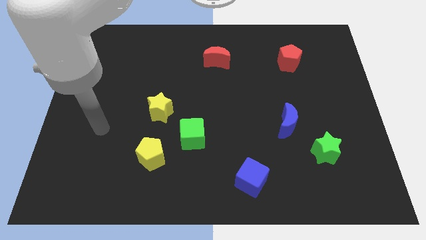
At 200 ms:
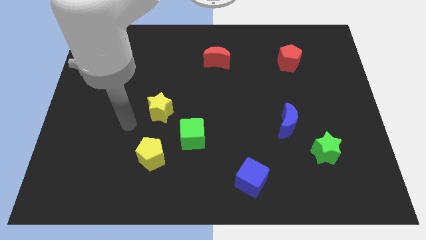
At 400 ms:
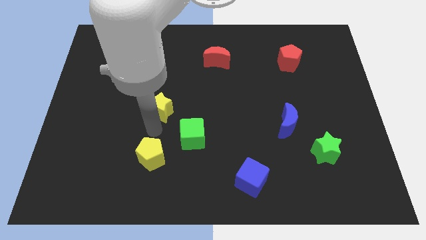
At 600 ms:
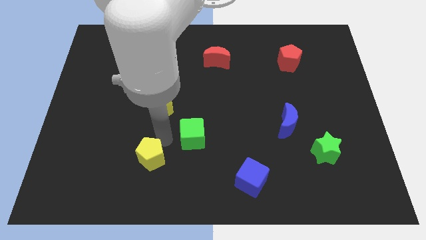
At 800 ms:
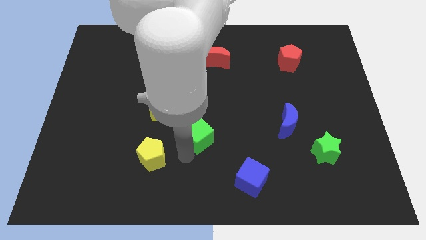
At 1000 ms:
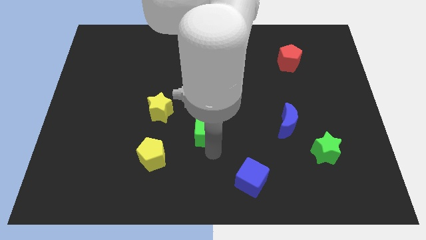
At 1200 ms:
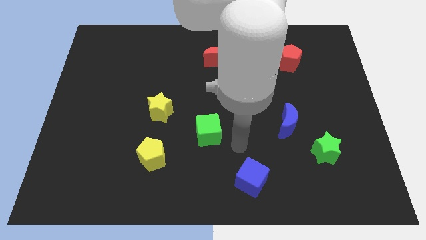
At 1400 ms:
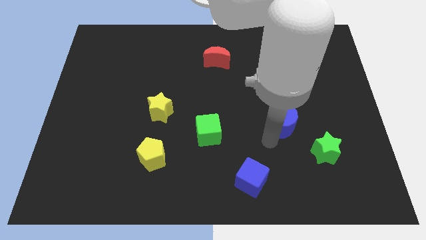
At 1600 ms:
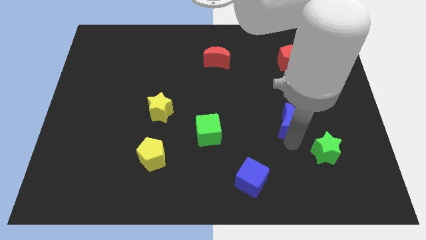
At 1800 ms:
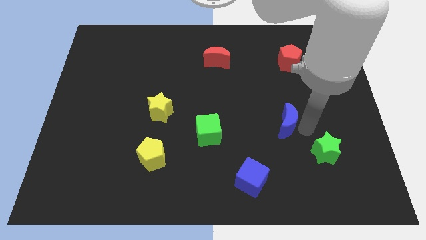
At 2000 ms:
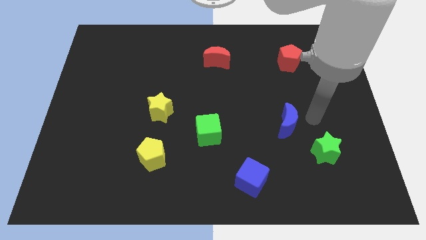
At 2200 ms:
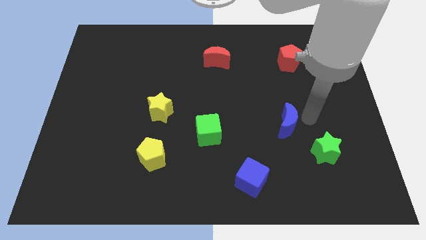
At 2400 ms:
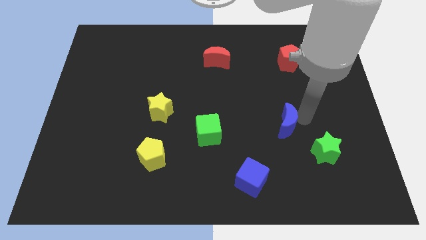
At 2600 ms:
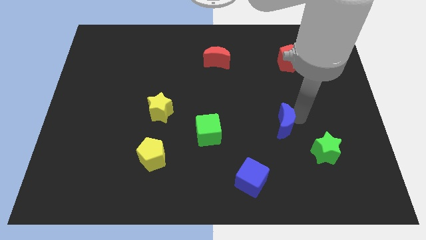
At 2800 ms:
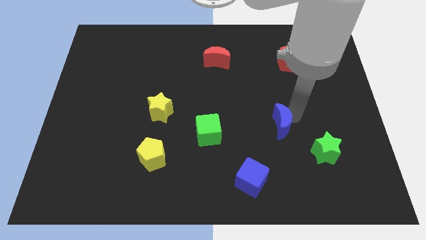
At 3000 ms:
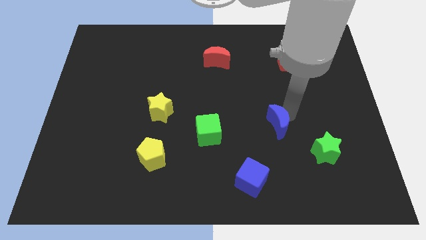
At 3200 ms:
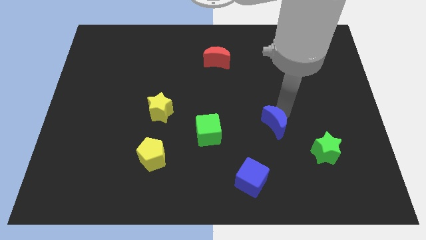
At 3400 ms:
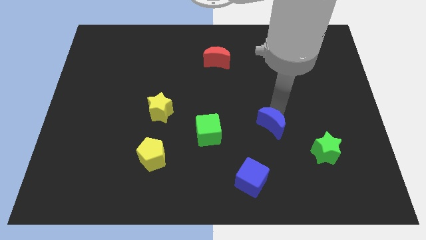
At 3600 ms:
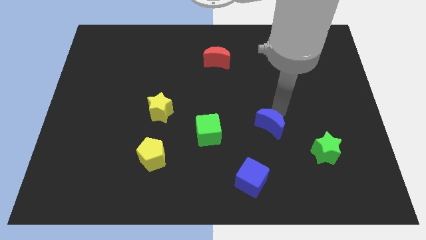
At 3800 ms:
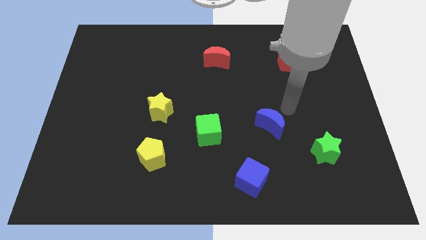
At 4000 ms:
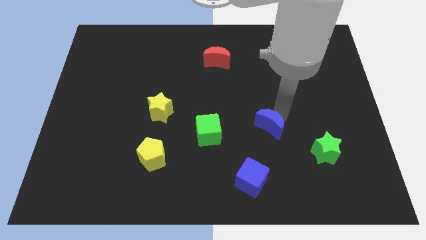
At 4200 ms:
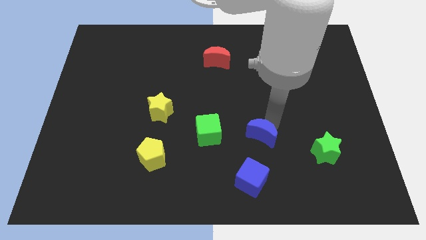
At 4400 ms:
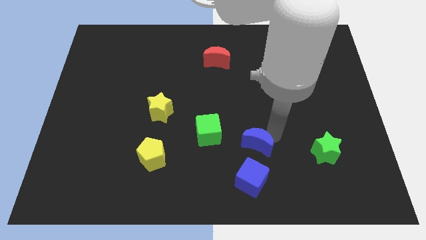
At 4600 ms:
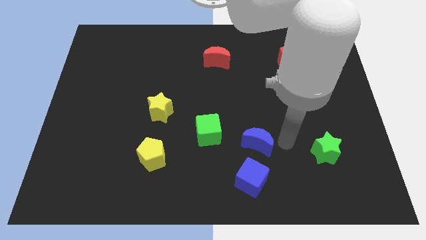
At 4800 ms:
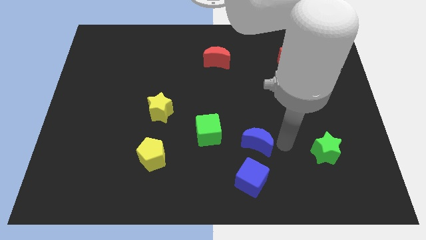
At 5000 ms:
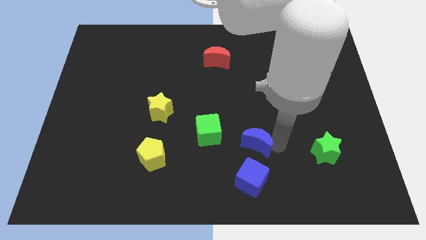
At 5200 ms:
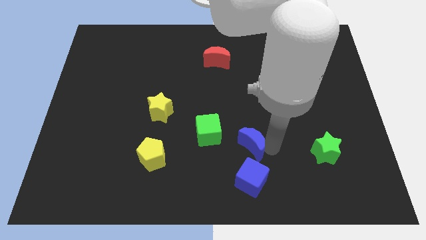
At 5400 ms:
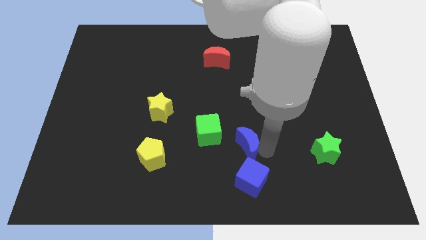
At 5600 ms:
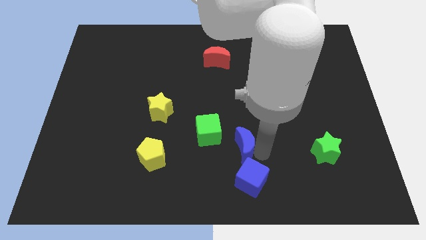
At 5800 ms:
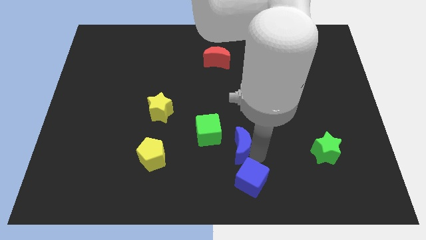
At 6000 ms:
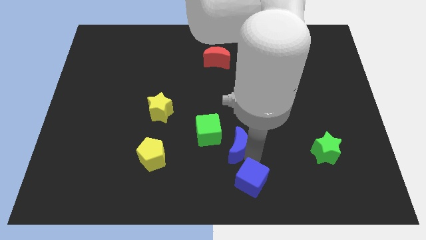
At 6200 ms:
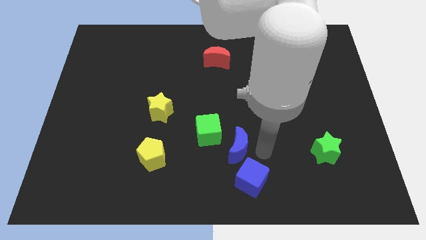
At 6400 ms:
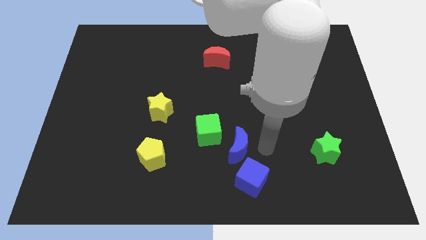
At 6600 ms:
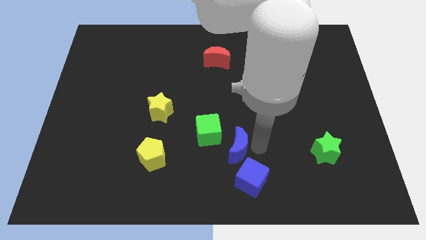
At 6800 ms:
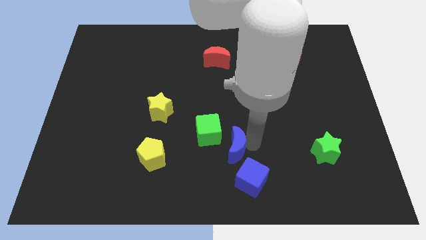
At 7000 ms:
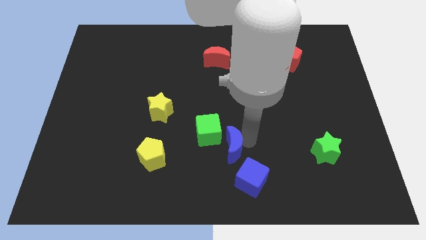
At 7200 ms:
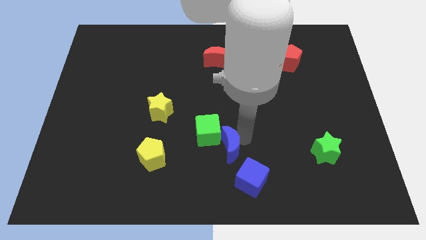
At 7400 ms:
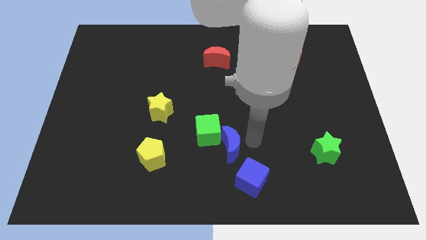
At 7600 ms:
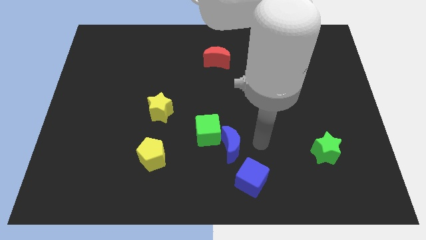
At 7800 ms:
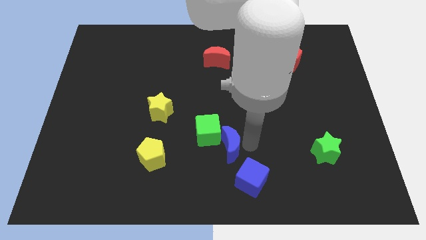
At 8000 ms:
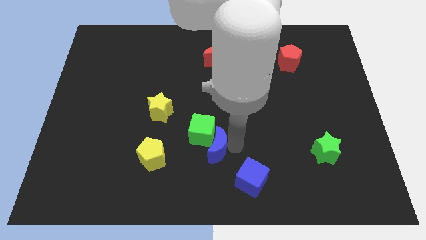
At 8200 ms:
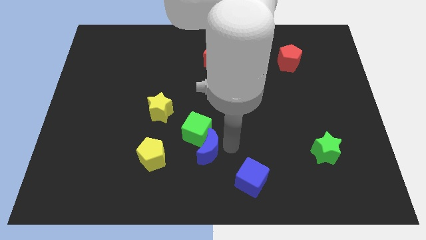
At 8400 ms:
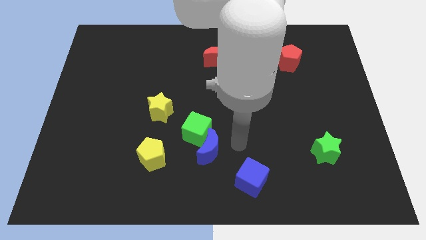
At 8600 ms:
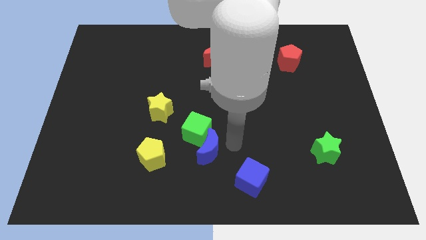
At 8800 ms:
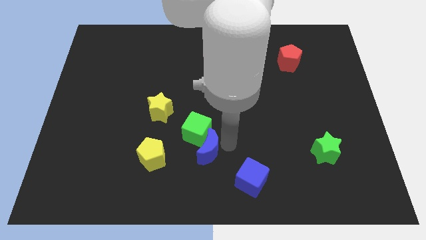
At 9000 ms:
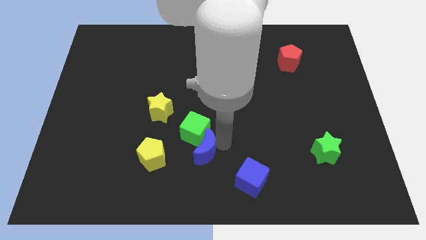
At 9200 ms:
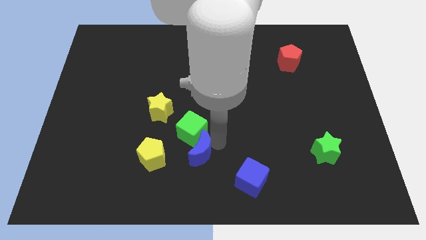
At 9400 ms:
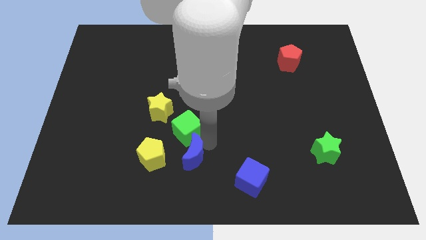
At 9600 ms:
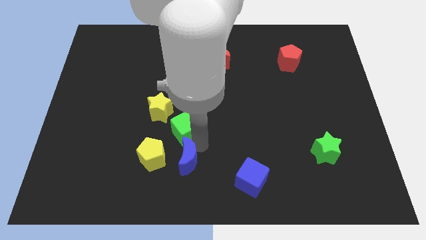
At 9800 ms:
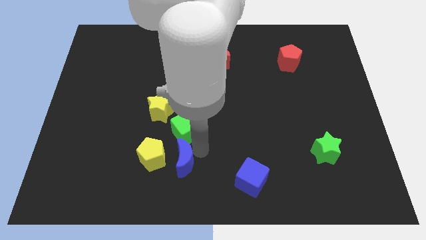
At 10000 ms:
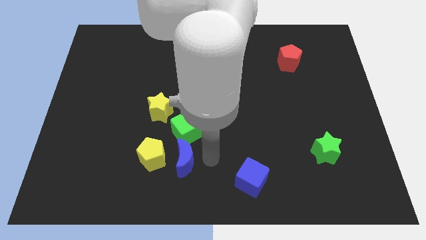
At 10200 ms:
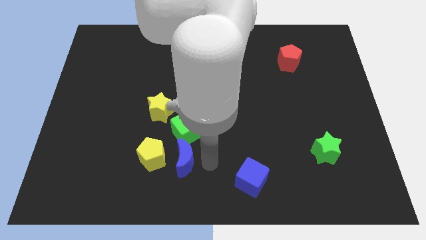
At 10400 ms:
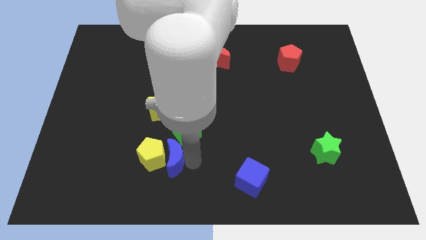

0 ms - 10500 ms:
slide the blue moon next to the yellow pentagon

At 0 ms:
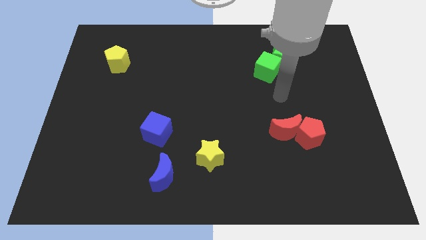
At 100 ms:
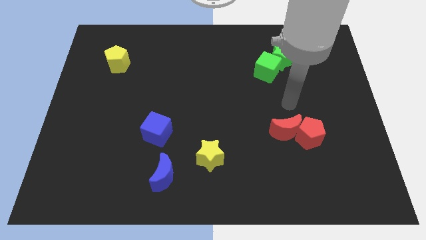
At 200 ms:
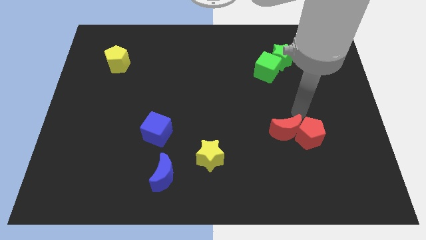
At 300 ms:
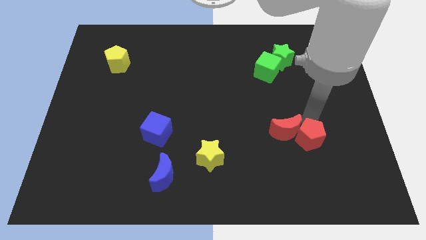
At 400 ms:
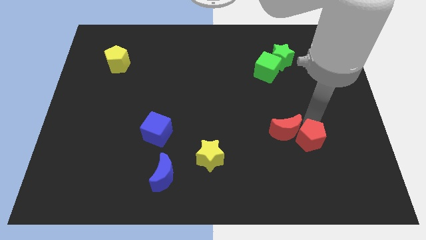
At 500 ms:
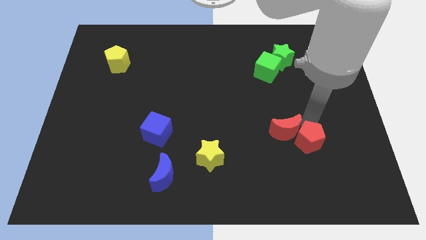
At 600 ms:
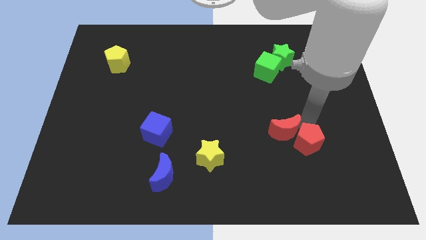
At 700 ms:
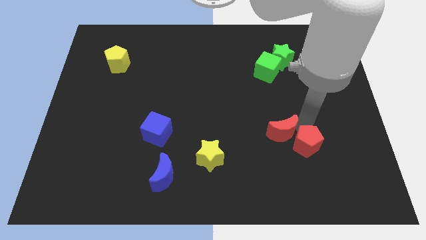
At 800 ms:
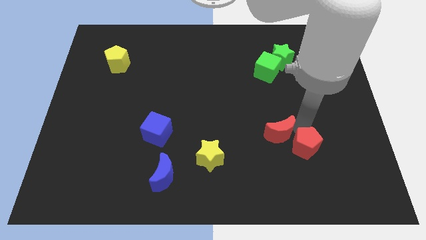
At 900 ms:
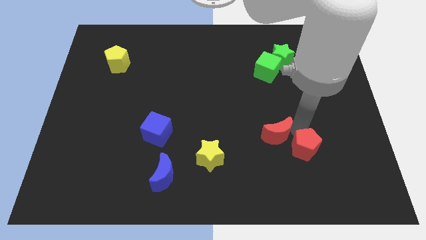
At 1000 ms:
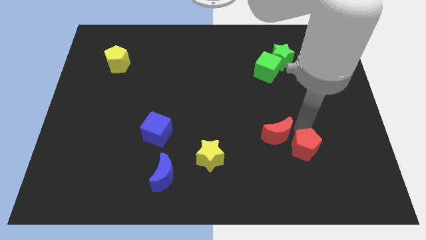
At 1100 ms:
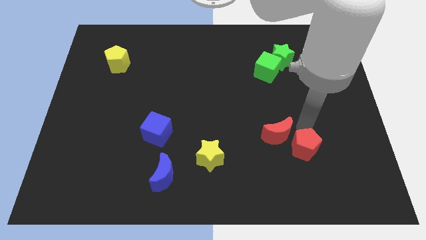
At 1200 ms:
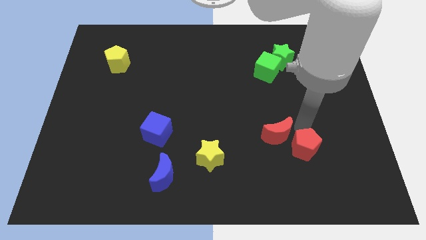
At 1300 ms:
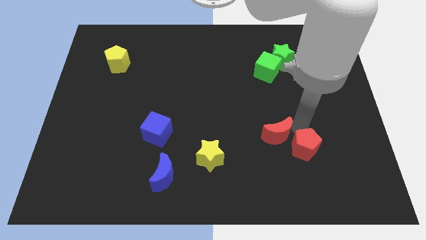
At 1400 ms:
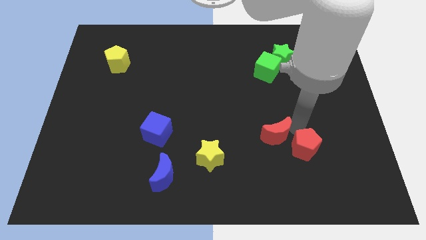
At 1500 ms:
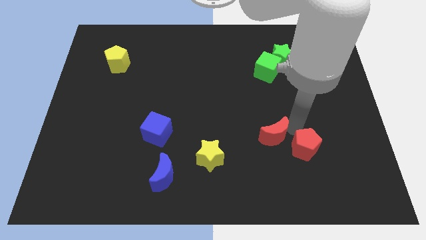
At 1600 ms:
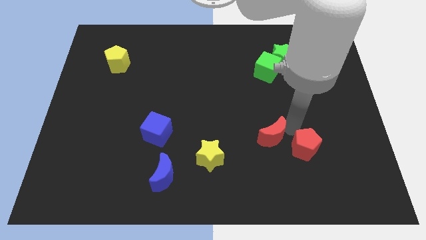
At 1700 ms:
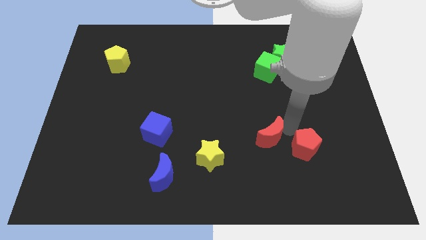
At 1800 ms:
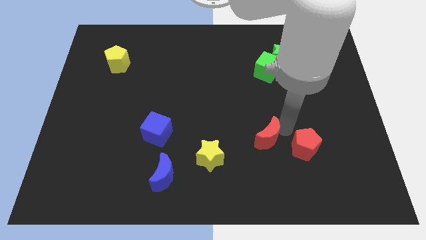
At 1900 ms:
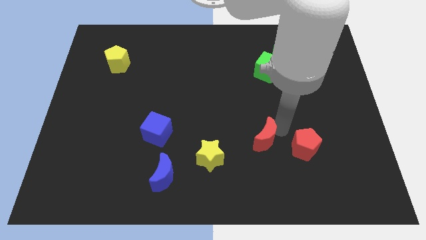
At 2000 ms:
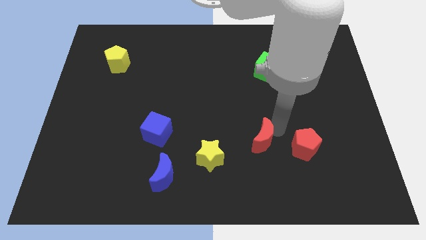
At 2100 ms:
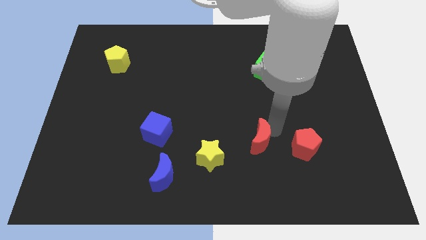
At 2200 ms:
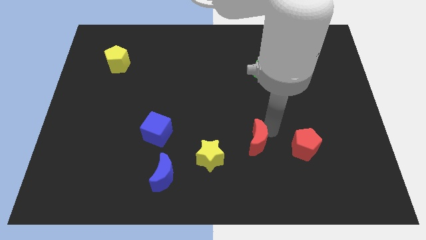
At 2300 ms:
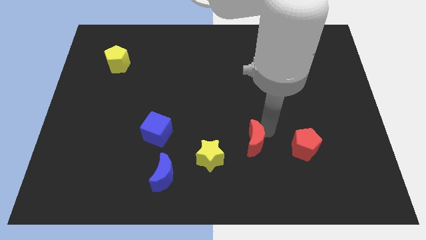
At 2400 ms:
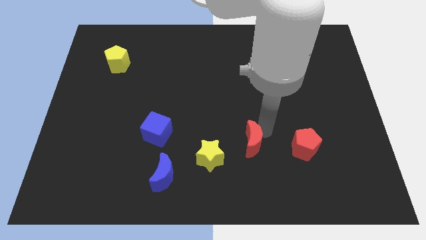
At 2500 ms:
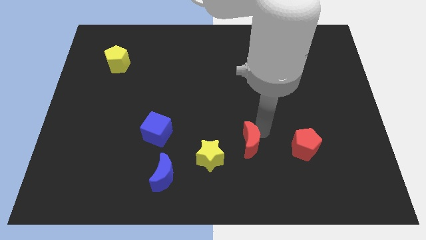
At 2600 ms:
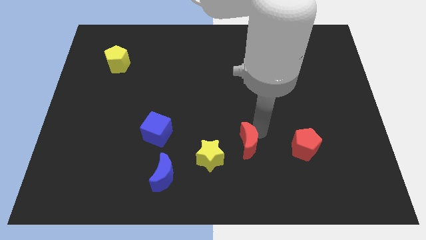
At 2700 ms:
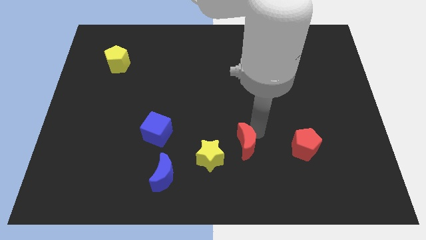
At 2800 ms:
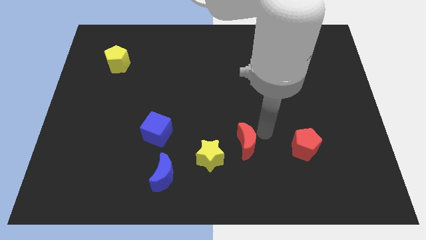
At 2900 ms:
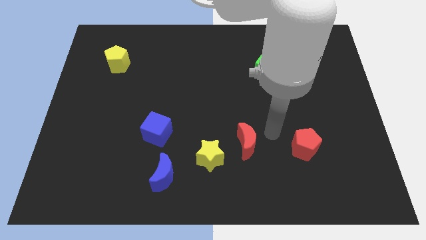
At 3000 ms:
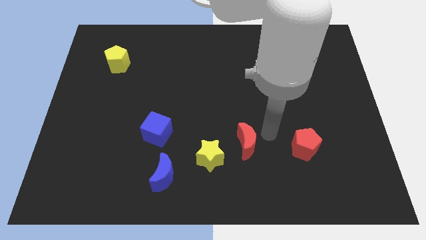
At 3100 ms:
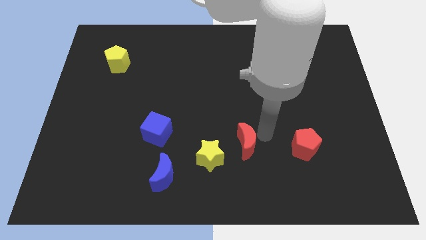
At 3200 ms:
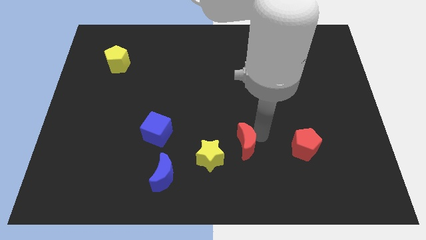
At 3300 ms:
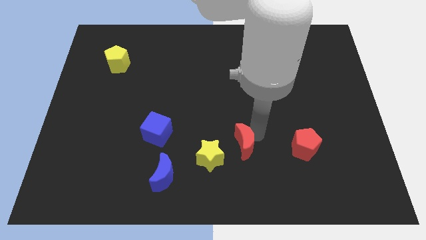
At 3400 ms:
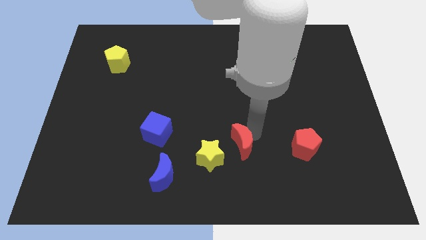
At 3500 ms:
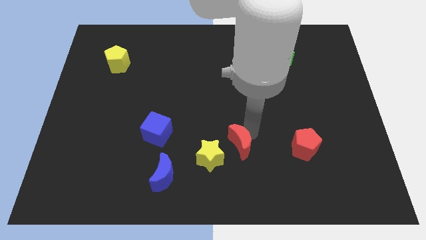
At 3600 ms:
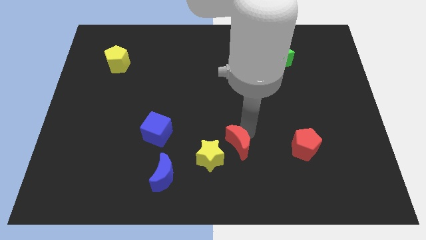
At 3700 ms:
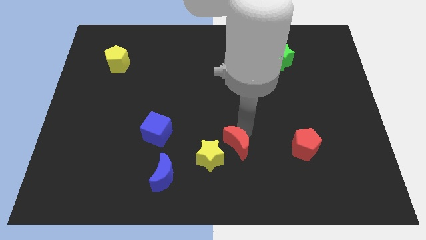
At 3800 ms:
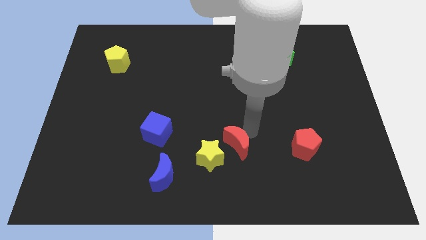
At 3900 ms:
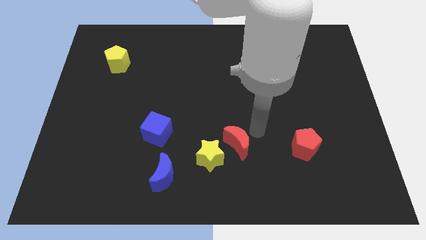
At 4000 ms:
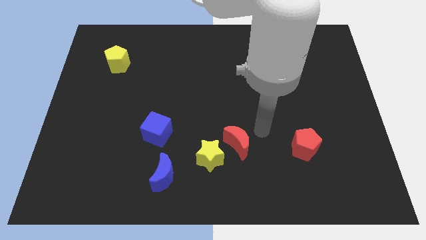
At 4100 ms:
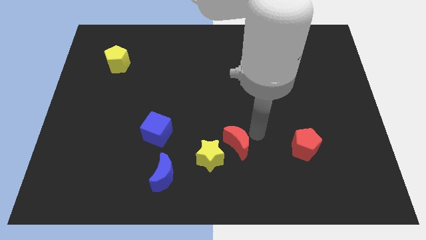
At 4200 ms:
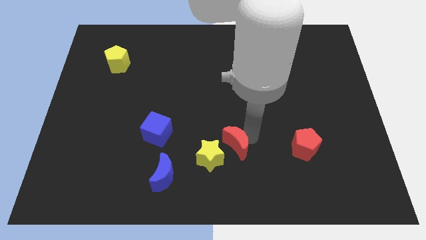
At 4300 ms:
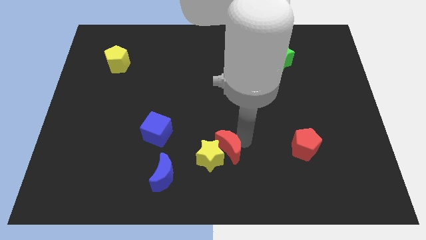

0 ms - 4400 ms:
slide the red moon to the yellow star
